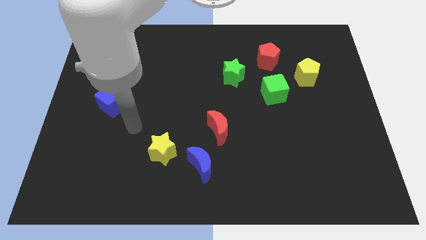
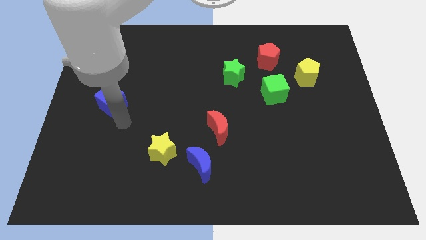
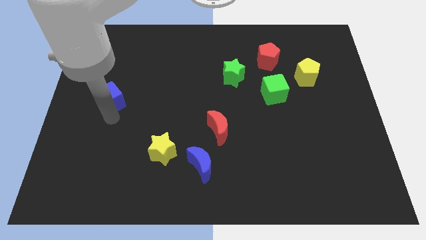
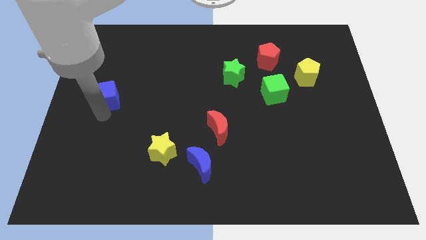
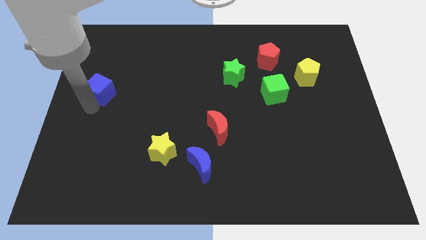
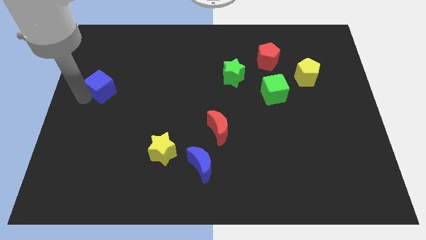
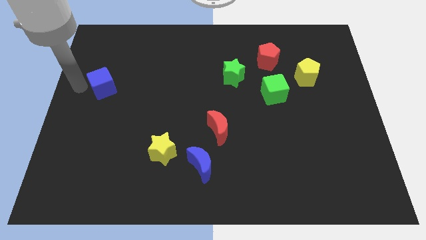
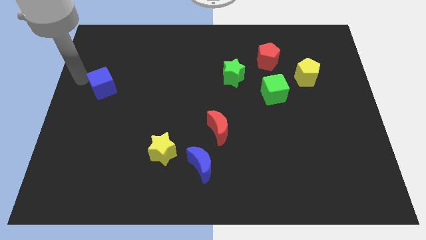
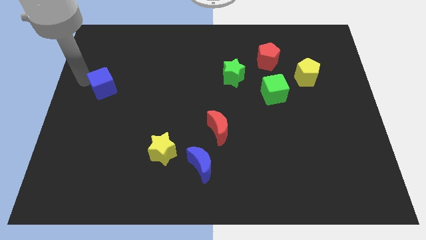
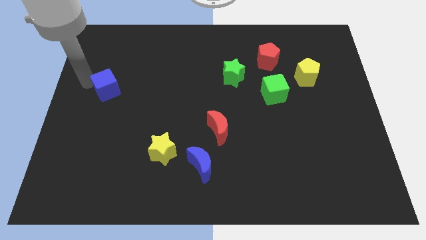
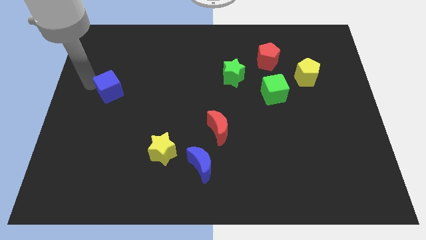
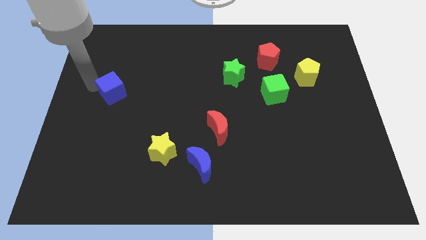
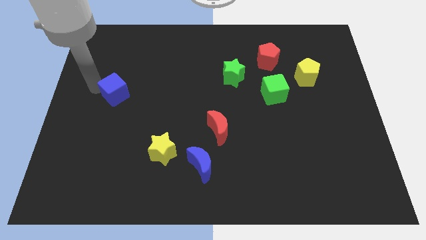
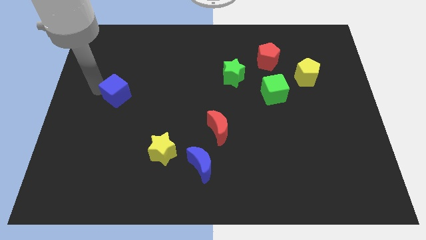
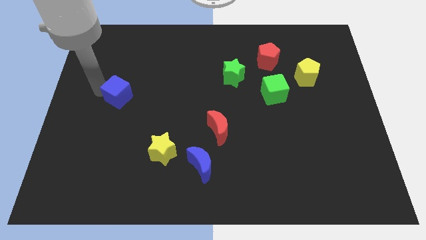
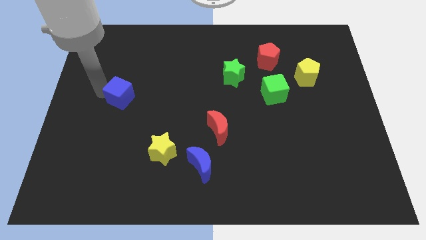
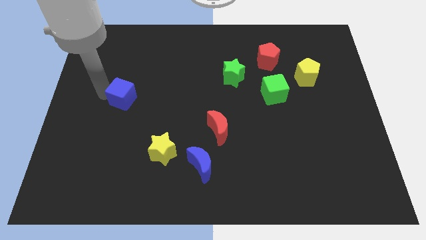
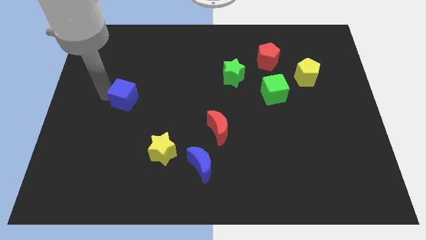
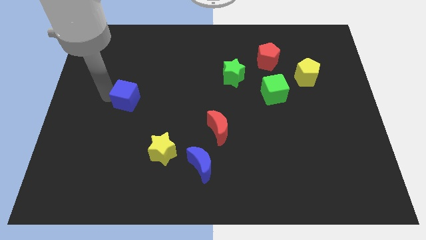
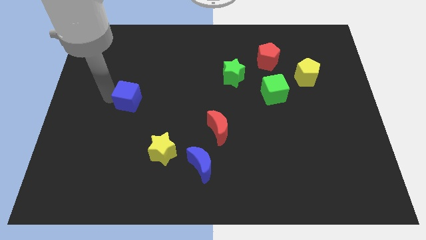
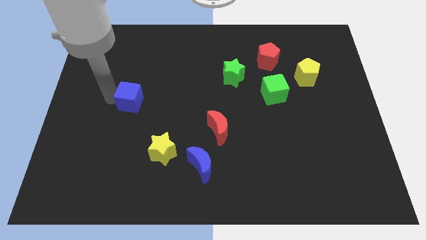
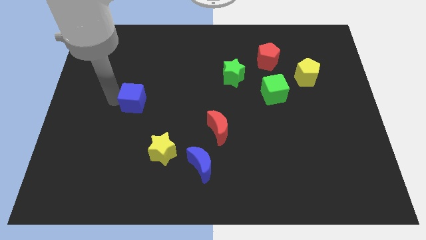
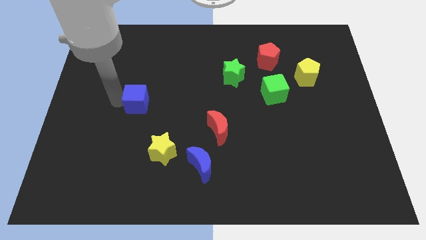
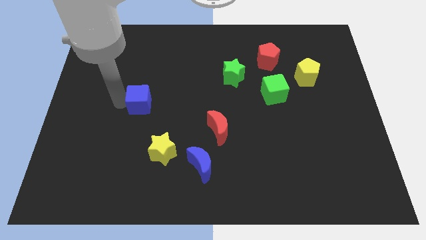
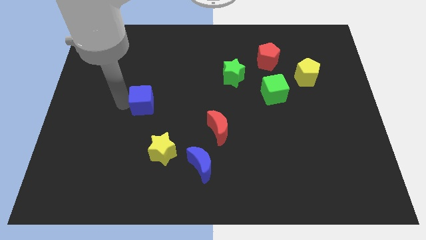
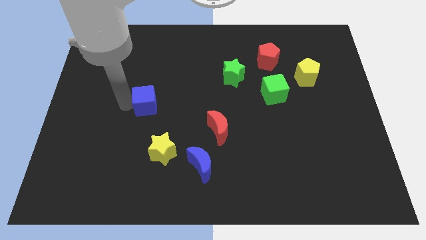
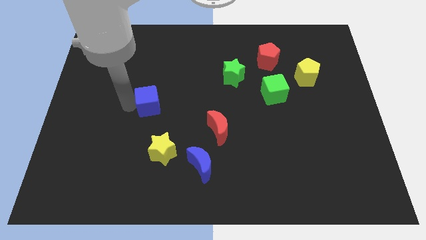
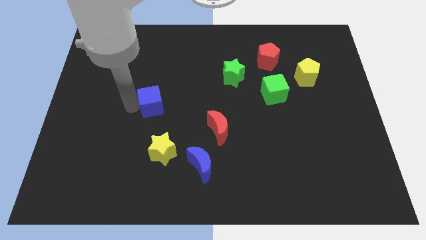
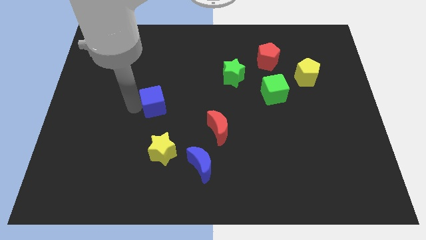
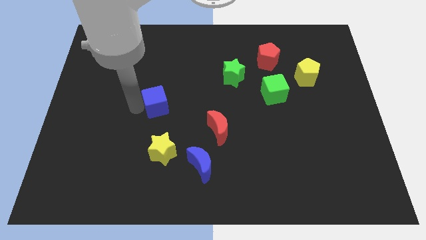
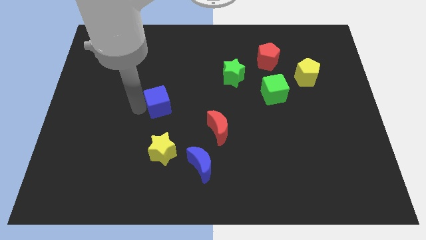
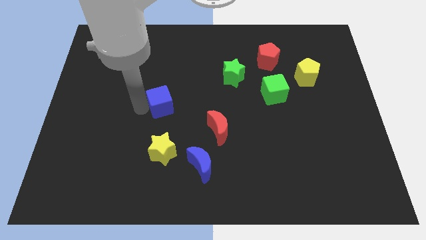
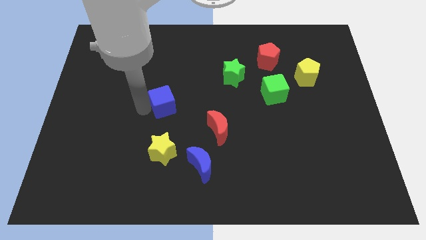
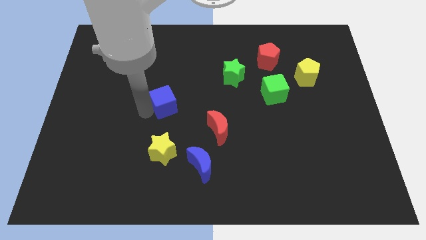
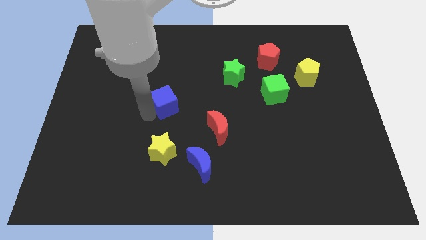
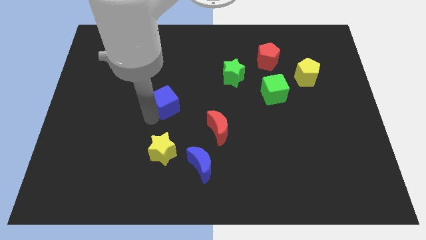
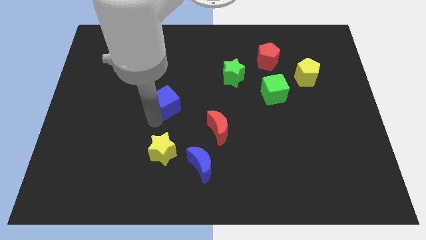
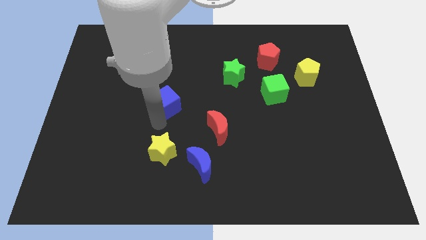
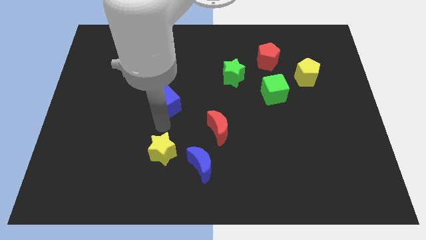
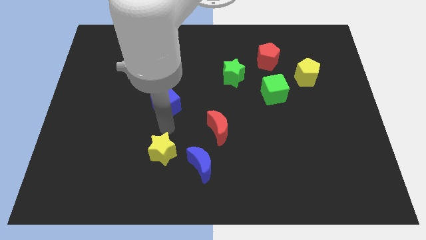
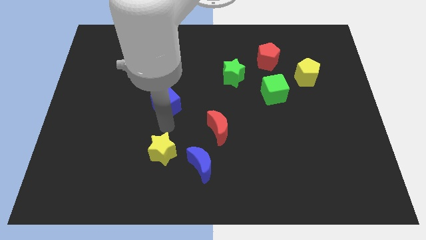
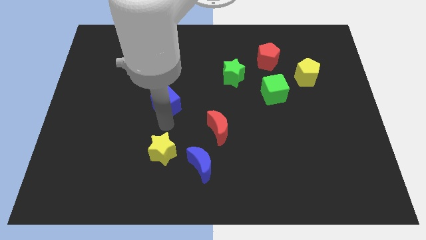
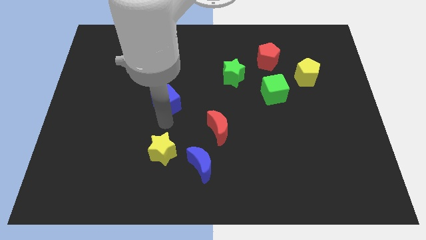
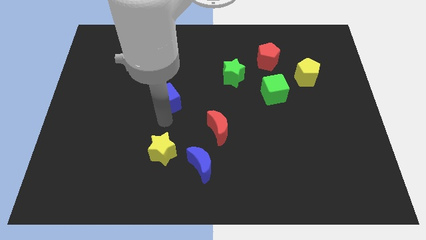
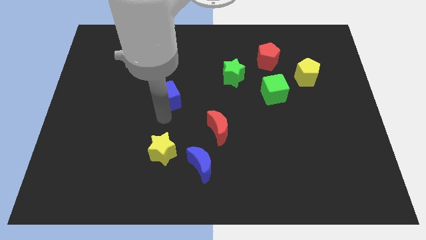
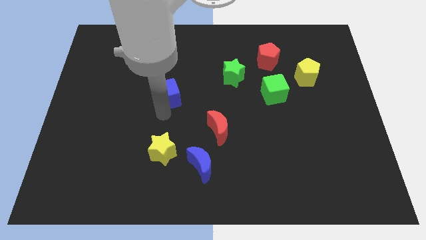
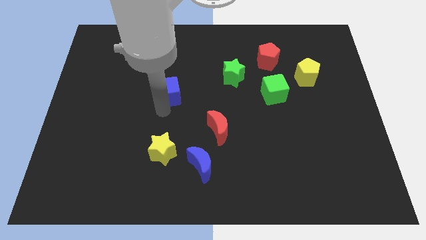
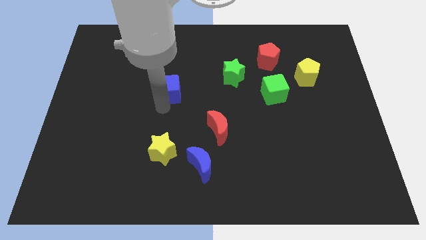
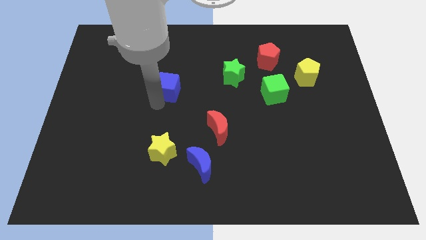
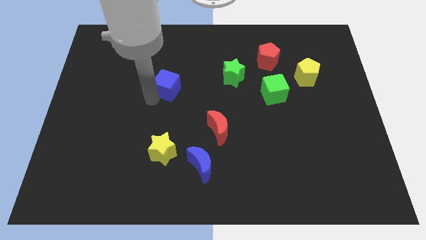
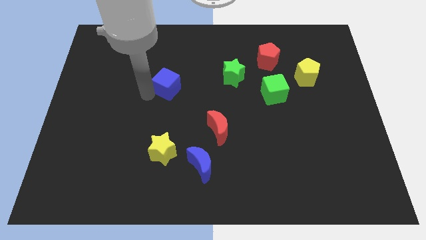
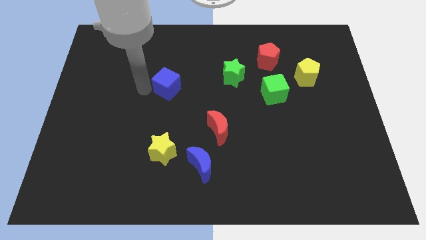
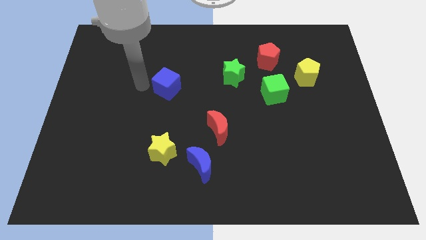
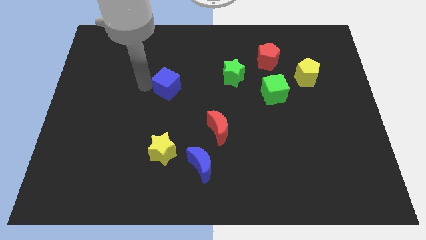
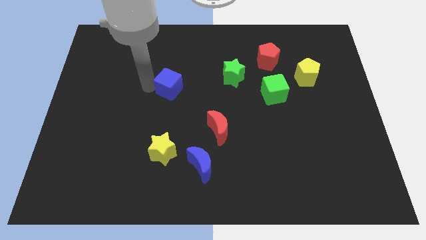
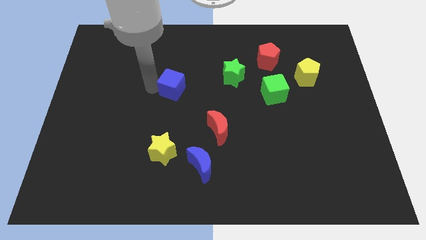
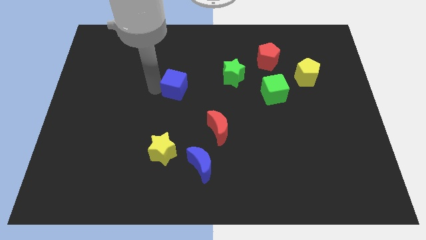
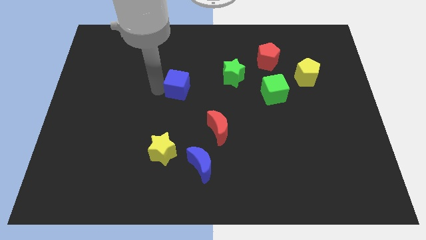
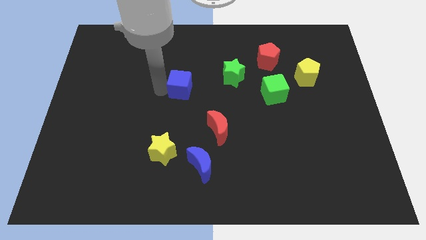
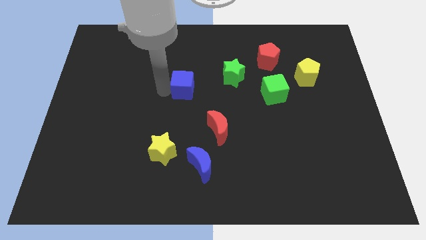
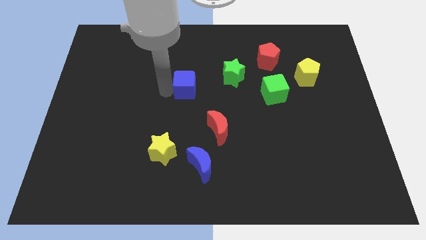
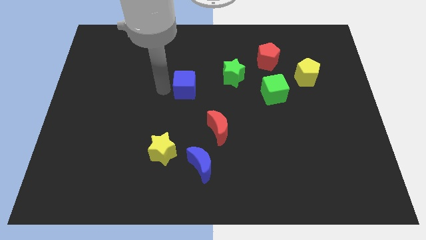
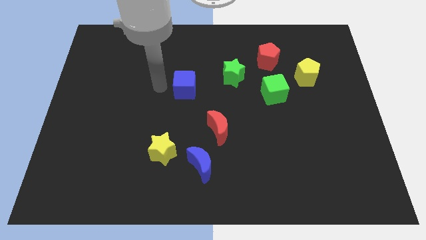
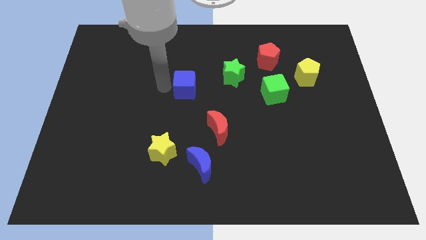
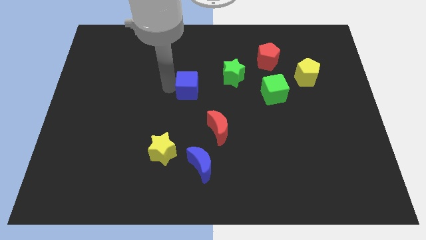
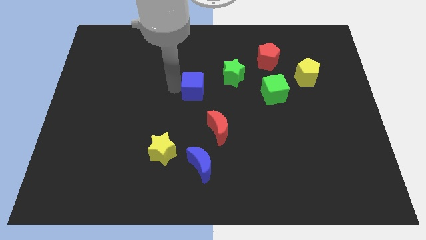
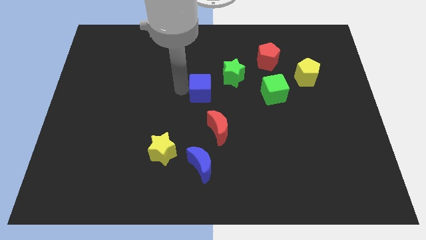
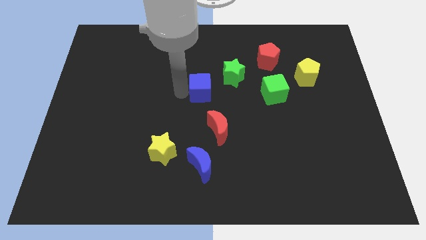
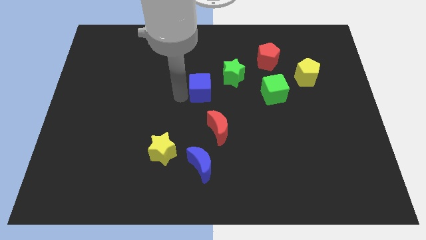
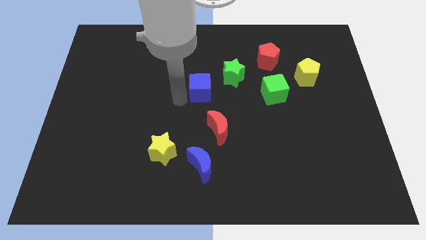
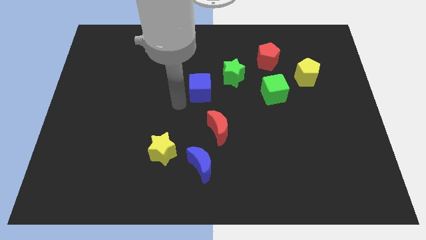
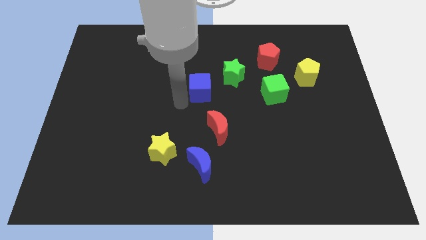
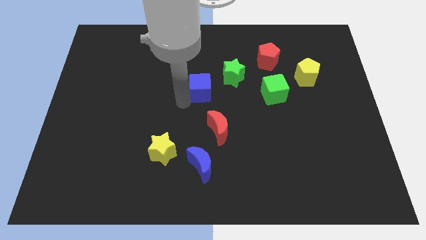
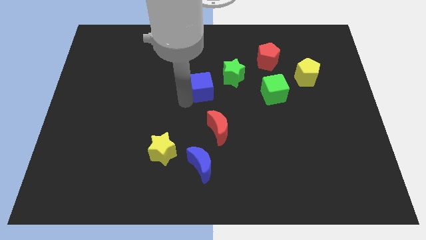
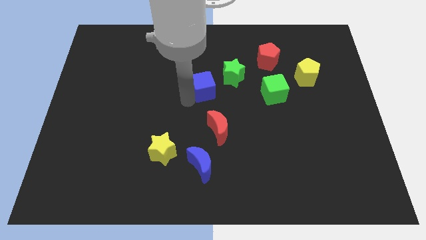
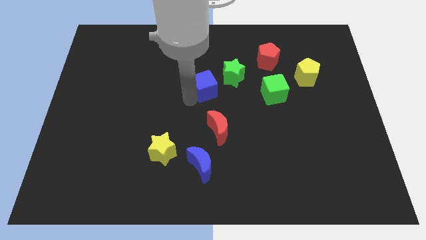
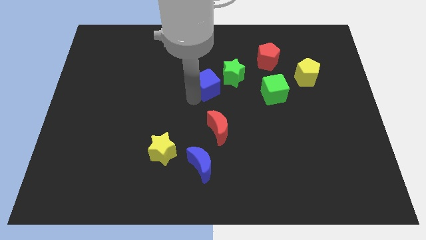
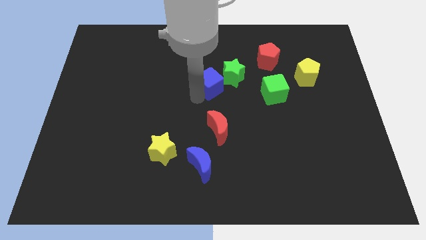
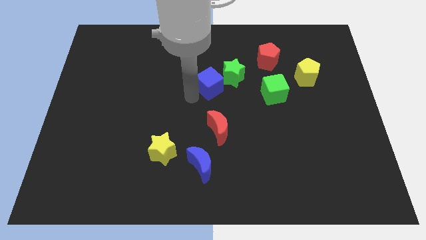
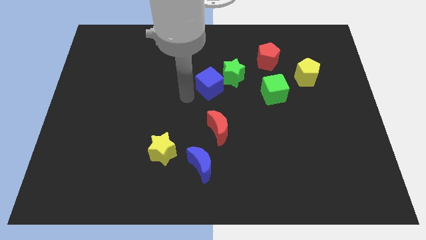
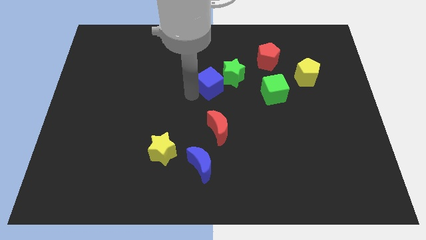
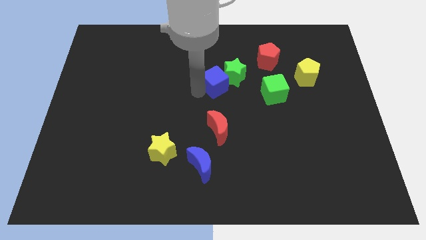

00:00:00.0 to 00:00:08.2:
slide the blue cube to the green star
